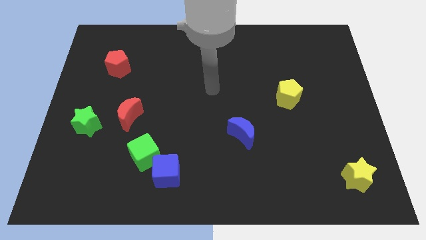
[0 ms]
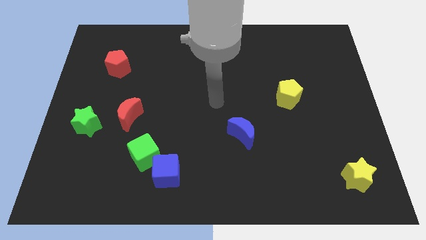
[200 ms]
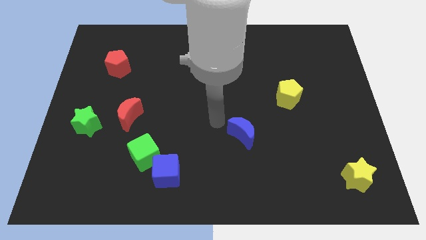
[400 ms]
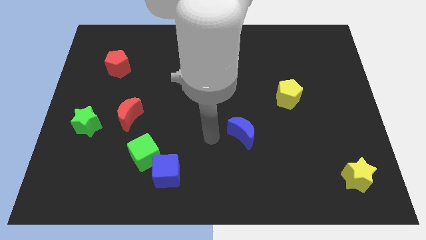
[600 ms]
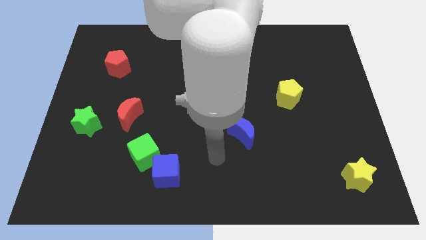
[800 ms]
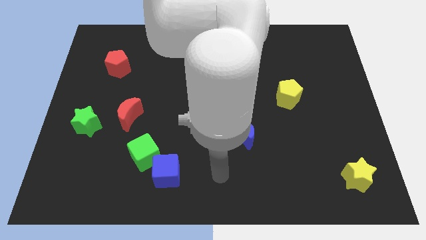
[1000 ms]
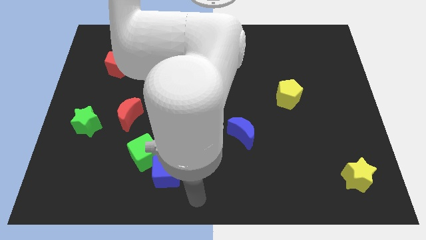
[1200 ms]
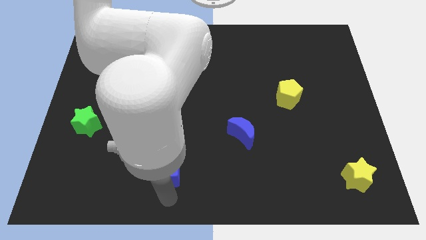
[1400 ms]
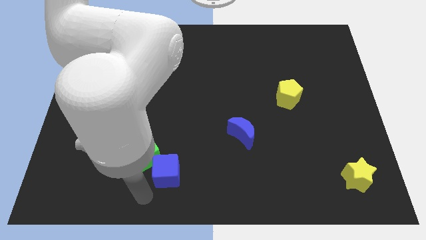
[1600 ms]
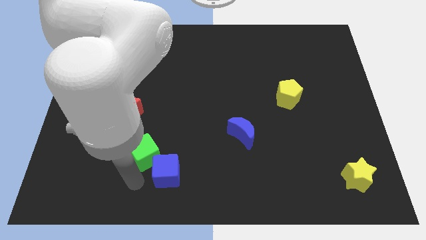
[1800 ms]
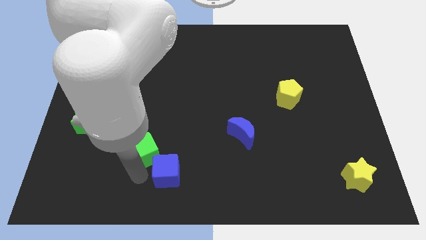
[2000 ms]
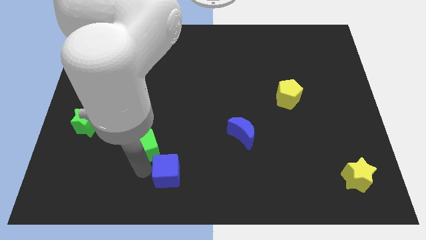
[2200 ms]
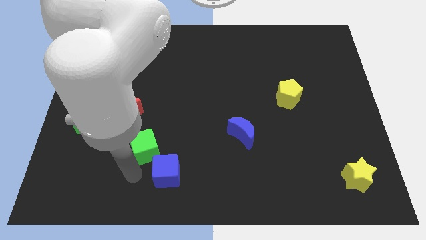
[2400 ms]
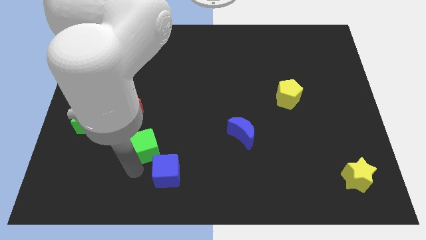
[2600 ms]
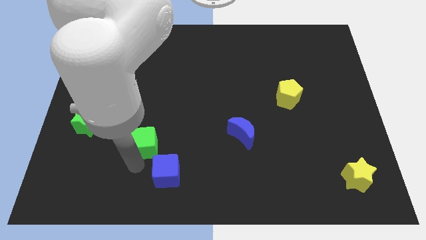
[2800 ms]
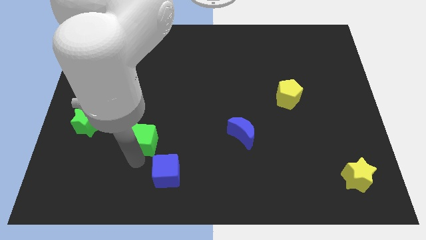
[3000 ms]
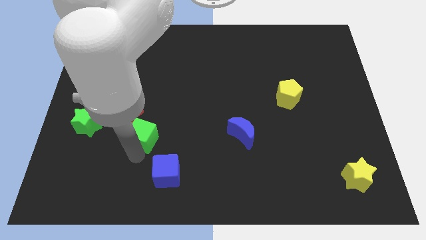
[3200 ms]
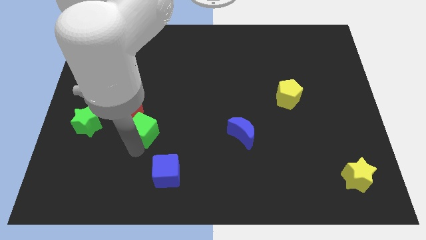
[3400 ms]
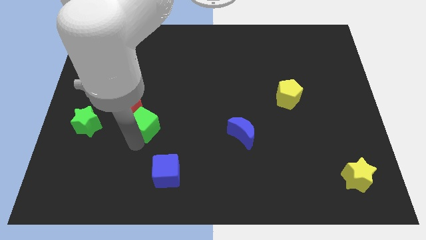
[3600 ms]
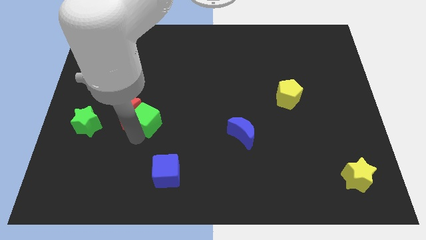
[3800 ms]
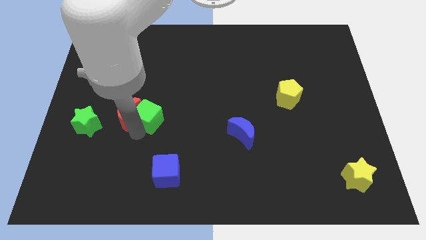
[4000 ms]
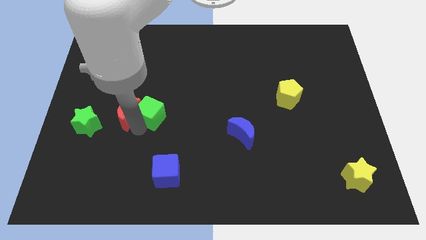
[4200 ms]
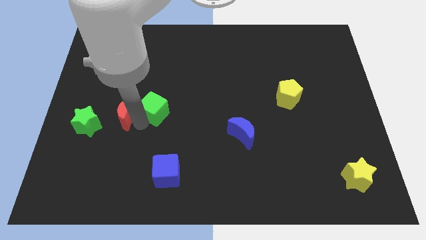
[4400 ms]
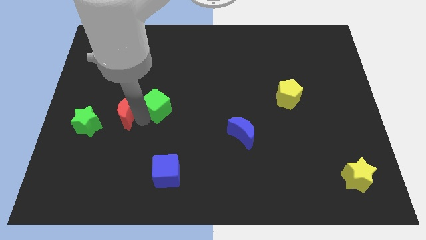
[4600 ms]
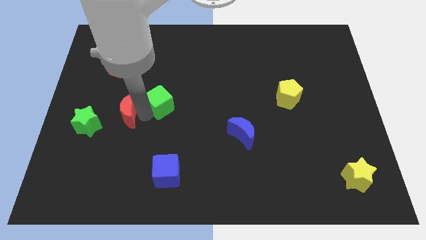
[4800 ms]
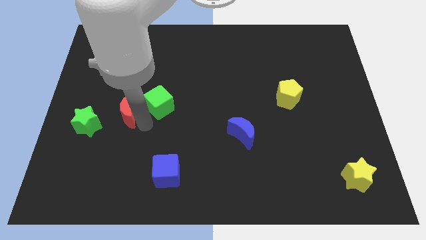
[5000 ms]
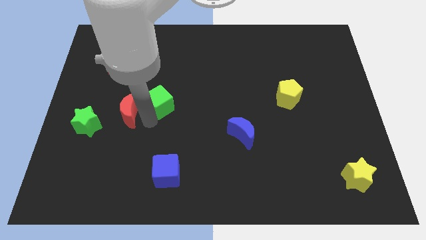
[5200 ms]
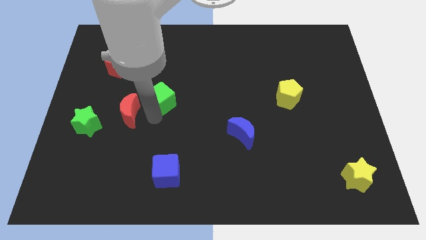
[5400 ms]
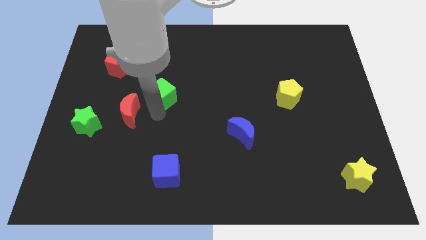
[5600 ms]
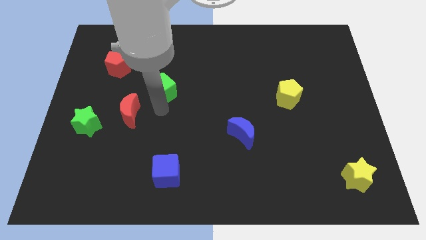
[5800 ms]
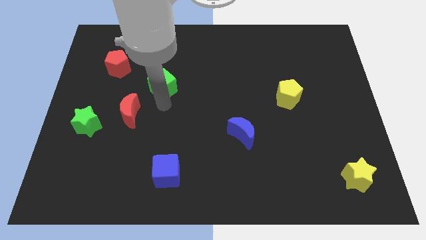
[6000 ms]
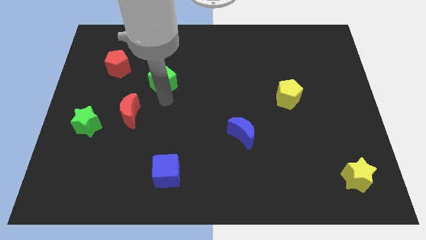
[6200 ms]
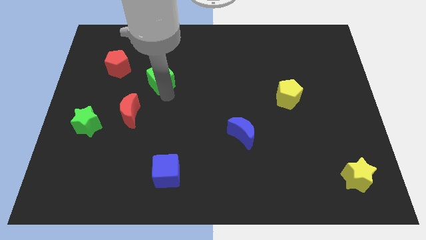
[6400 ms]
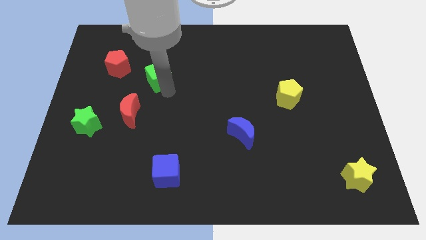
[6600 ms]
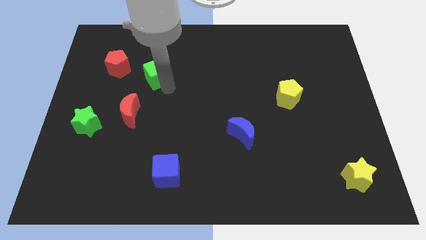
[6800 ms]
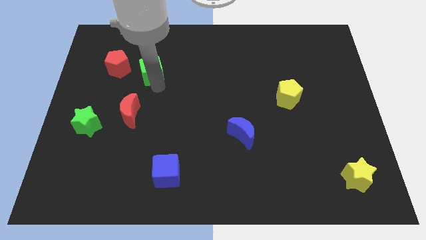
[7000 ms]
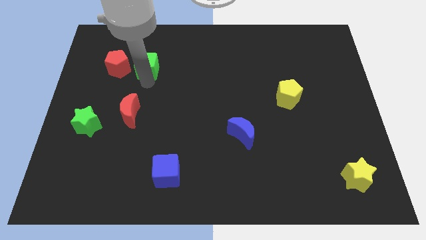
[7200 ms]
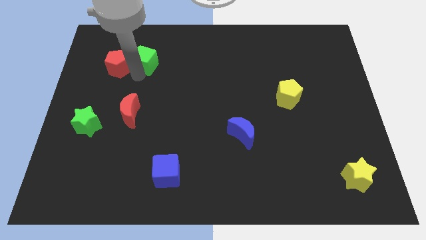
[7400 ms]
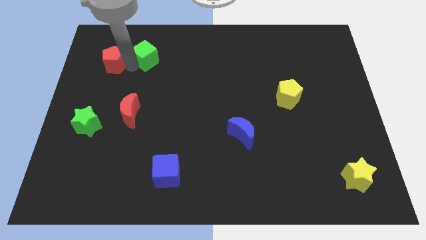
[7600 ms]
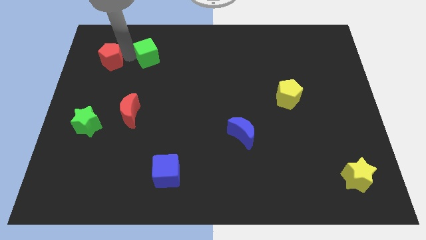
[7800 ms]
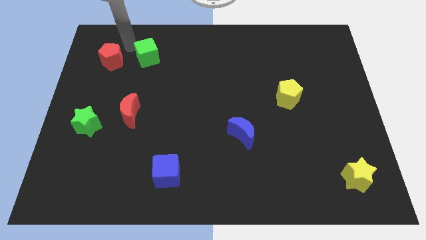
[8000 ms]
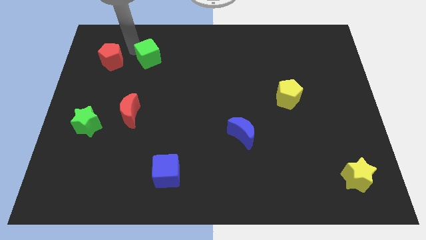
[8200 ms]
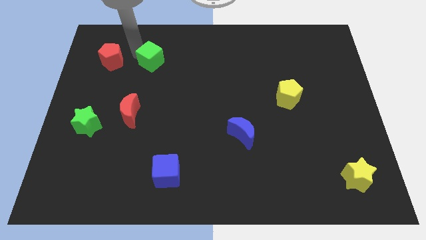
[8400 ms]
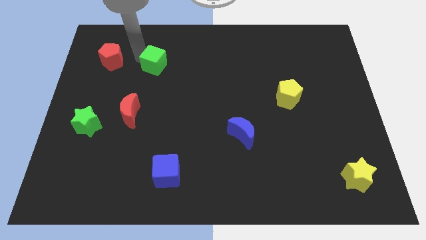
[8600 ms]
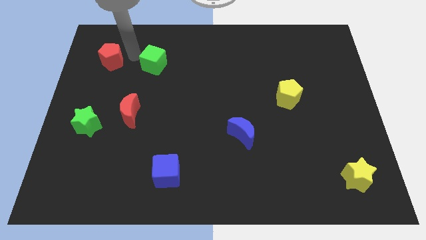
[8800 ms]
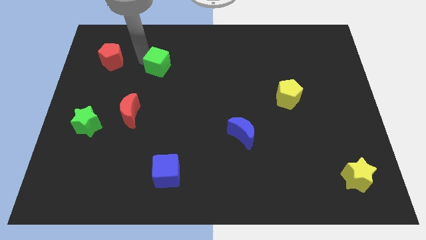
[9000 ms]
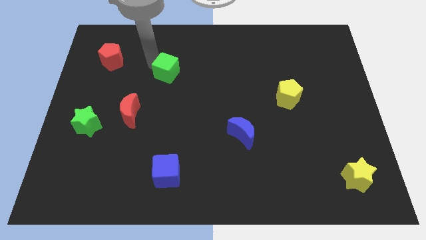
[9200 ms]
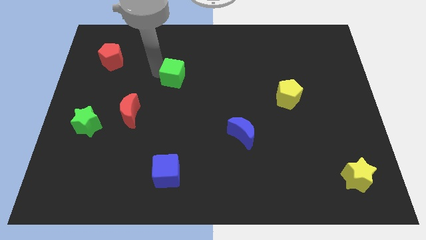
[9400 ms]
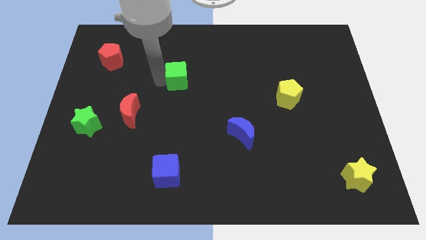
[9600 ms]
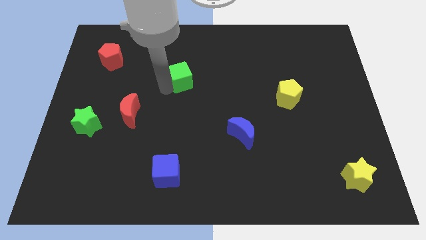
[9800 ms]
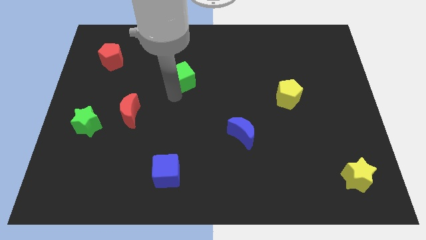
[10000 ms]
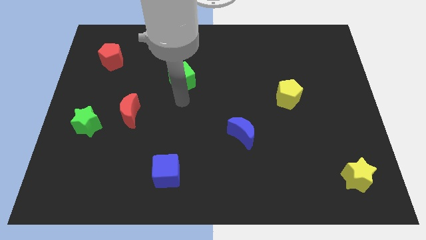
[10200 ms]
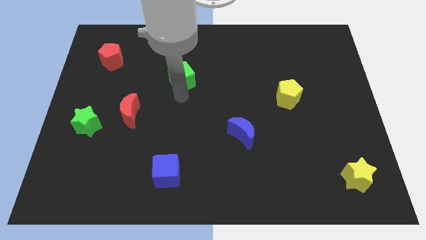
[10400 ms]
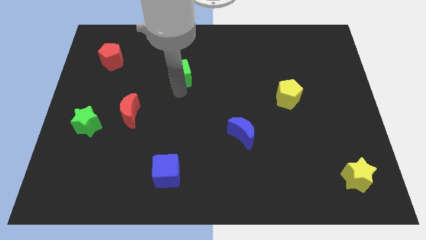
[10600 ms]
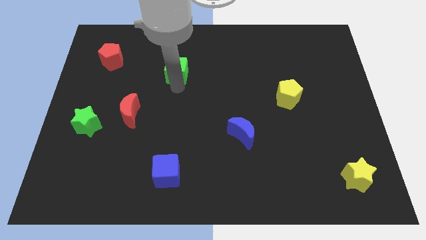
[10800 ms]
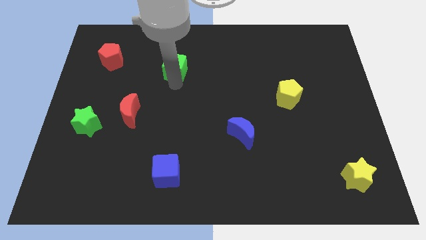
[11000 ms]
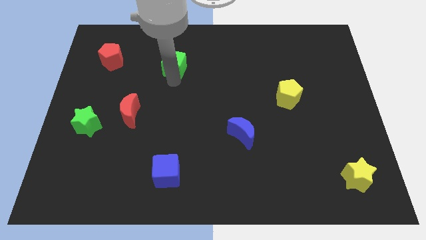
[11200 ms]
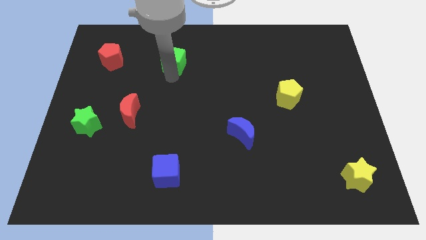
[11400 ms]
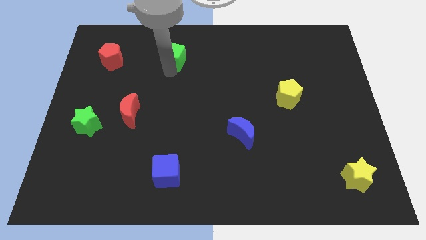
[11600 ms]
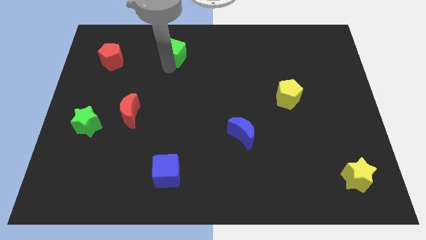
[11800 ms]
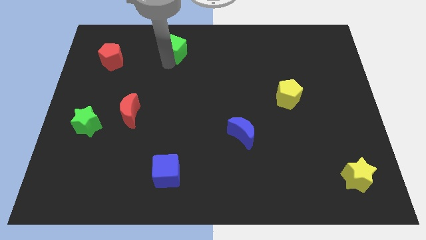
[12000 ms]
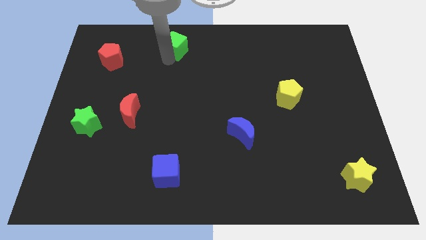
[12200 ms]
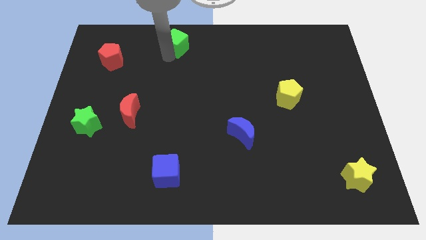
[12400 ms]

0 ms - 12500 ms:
push the green cube to the top
